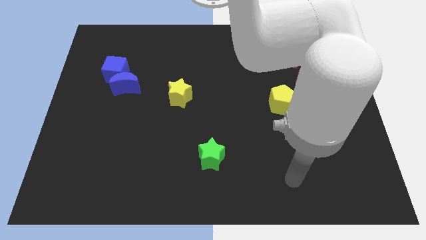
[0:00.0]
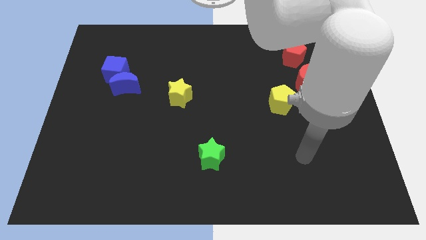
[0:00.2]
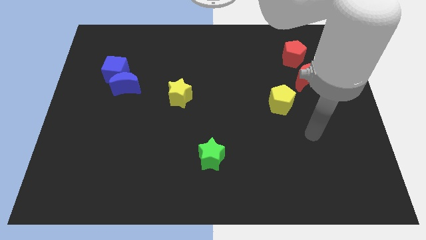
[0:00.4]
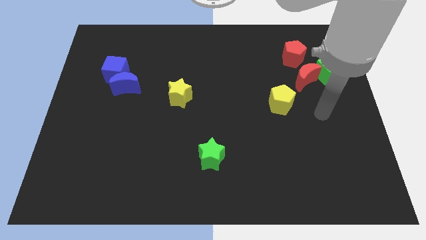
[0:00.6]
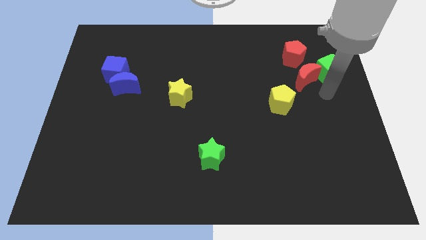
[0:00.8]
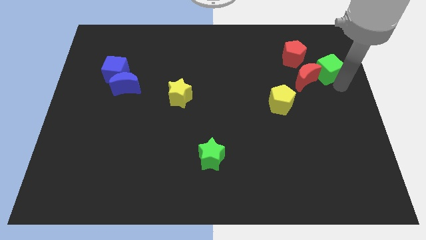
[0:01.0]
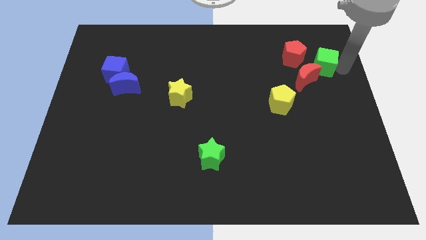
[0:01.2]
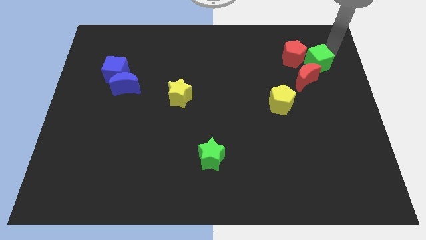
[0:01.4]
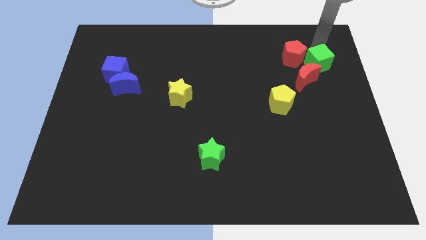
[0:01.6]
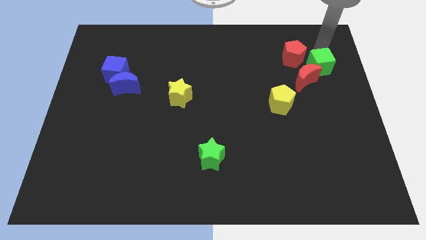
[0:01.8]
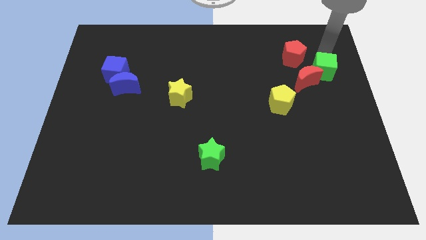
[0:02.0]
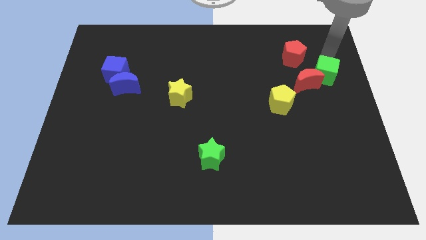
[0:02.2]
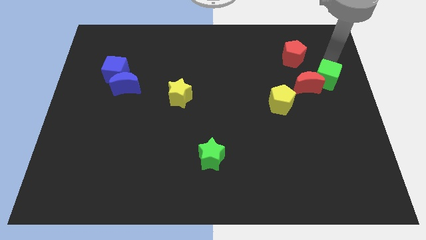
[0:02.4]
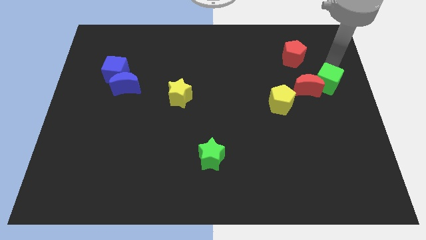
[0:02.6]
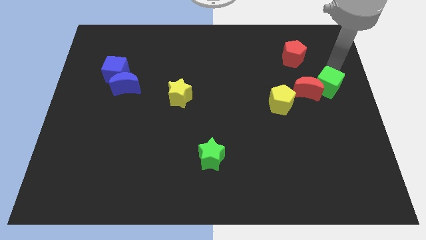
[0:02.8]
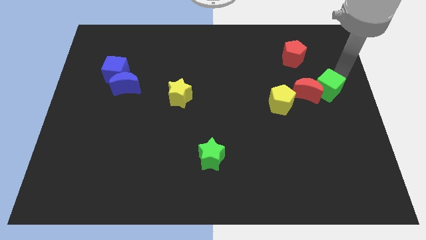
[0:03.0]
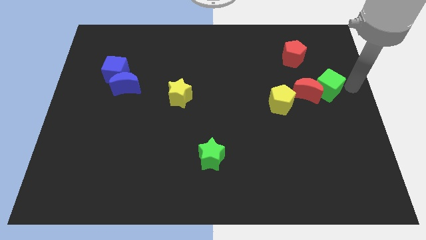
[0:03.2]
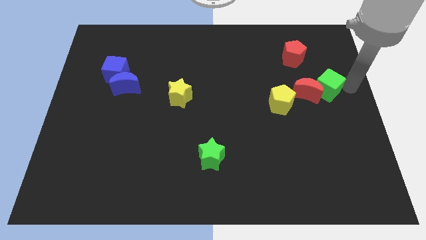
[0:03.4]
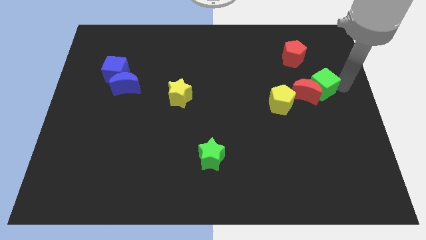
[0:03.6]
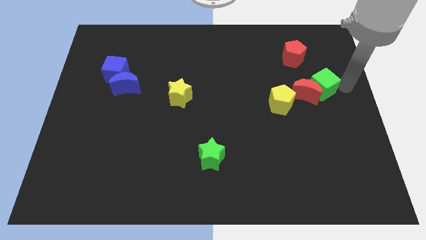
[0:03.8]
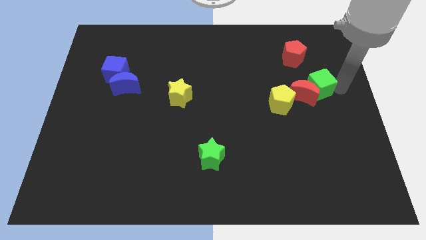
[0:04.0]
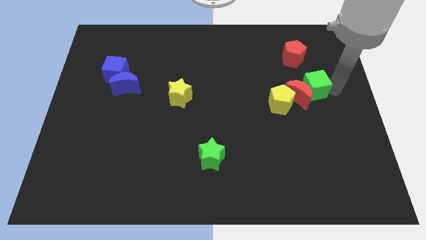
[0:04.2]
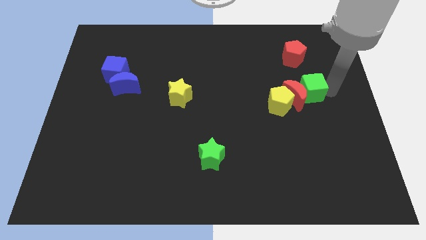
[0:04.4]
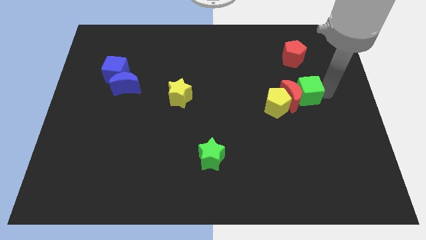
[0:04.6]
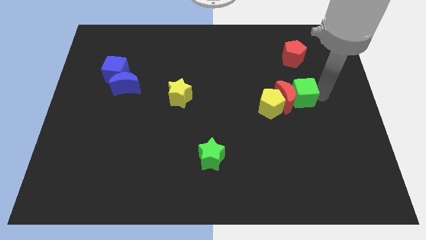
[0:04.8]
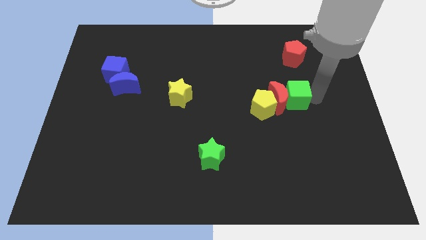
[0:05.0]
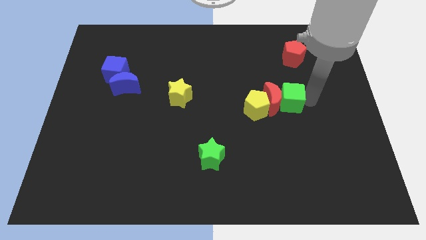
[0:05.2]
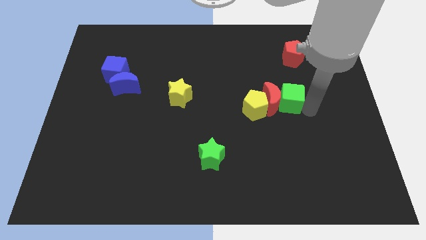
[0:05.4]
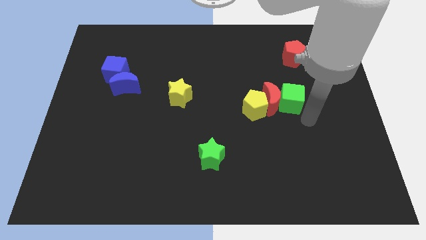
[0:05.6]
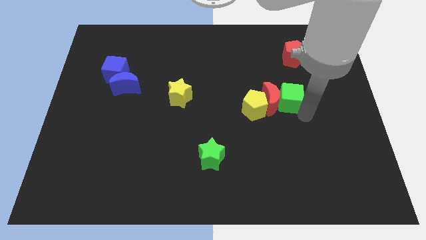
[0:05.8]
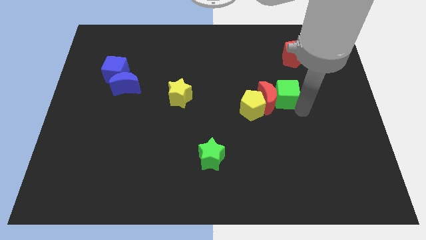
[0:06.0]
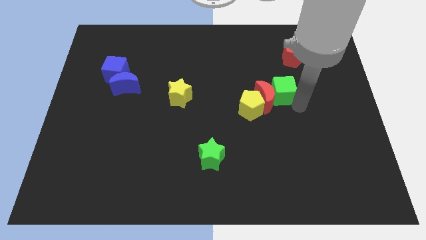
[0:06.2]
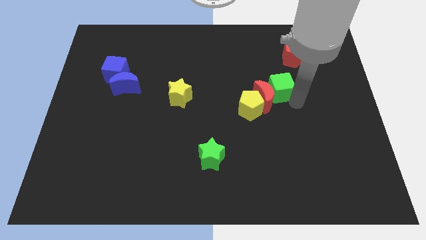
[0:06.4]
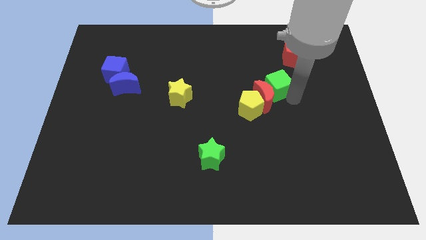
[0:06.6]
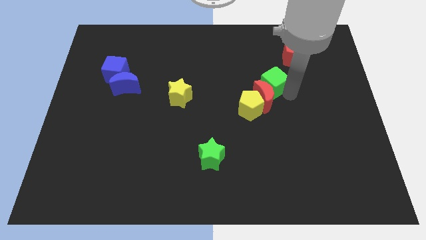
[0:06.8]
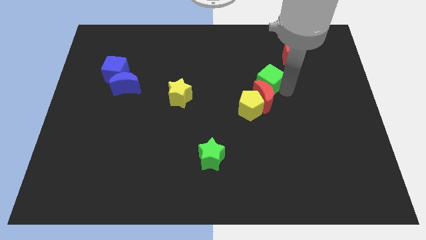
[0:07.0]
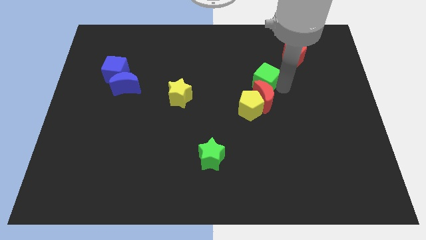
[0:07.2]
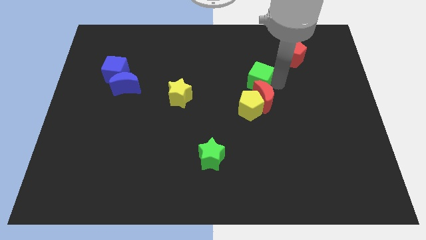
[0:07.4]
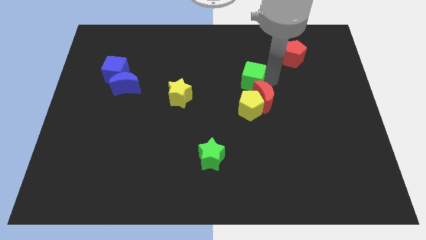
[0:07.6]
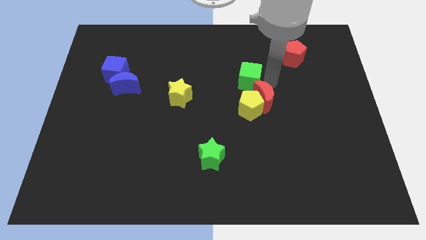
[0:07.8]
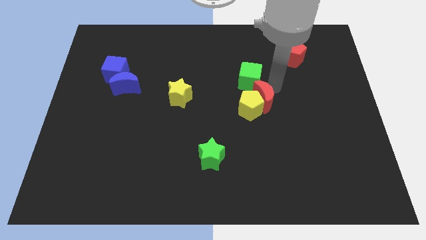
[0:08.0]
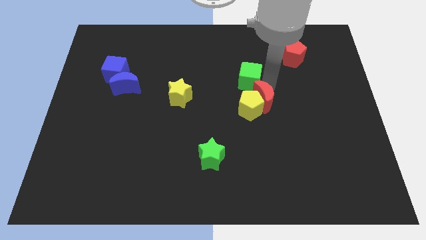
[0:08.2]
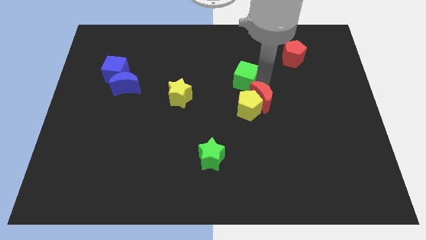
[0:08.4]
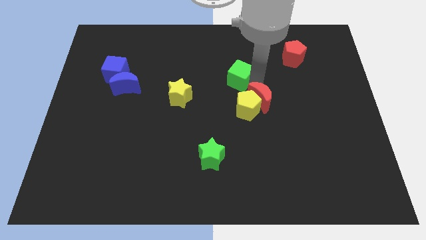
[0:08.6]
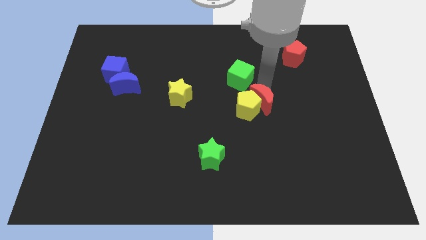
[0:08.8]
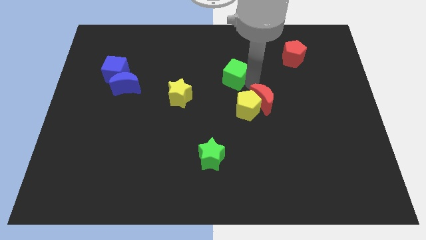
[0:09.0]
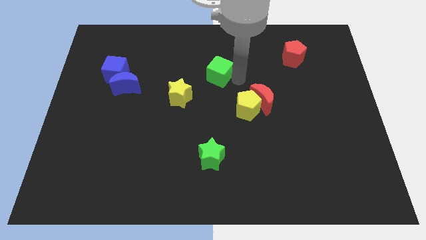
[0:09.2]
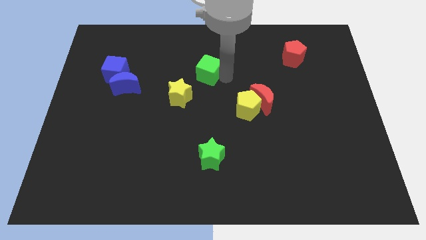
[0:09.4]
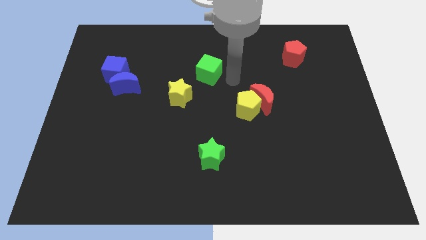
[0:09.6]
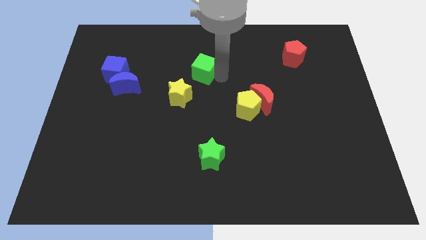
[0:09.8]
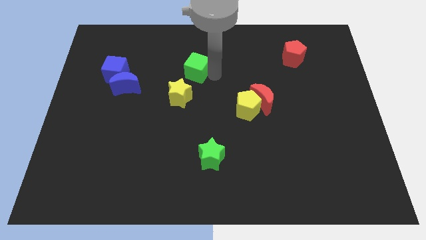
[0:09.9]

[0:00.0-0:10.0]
slide the green cube to the top of the yellow star

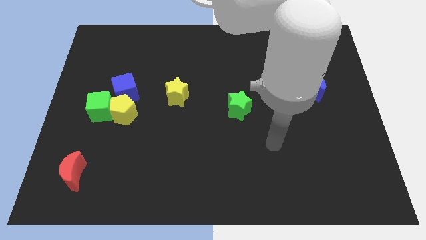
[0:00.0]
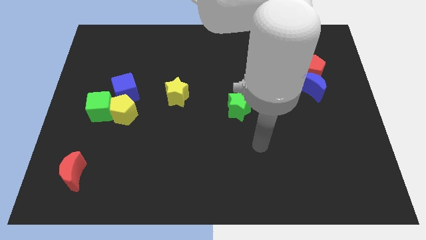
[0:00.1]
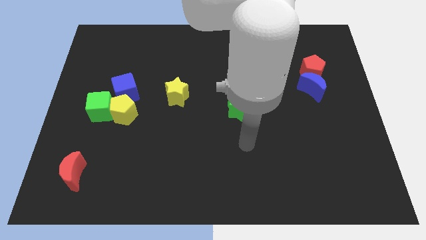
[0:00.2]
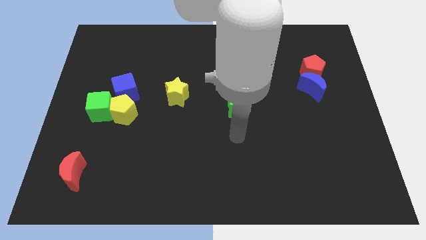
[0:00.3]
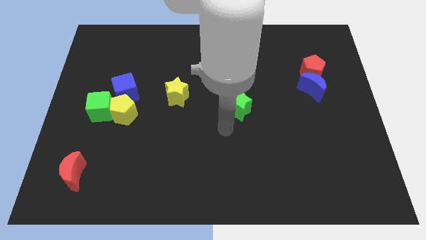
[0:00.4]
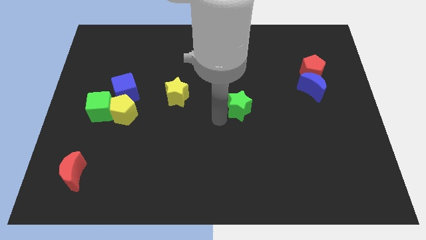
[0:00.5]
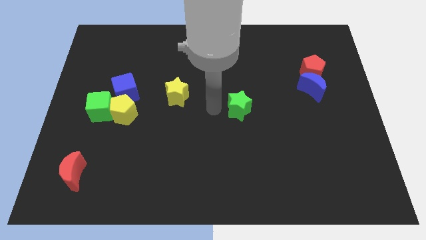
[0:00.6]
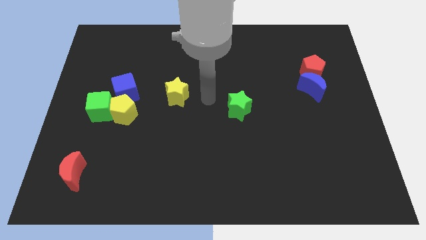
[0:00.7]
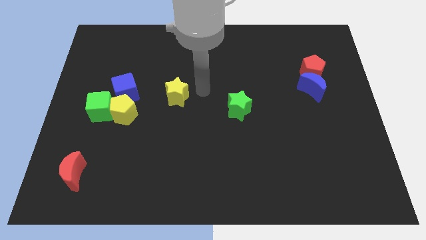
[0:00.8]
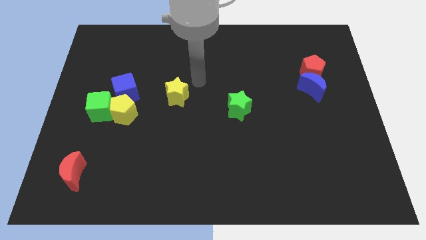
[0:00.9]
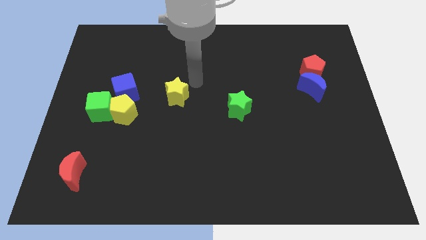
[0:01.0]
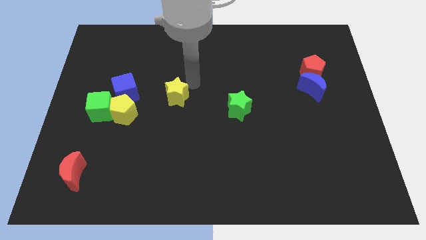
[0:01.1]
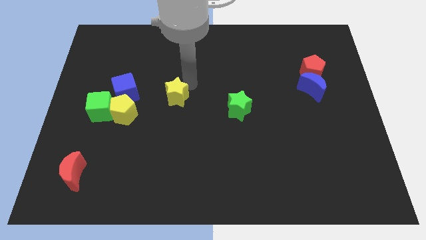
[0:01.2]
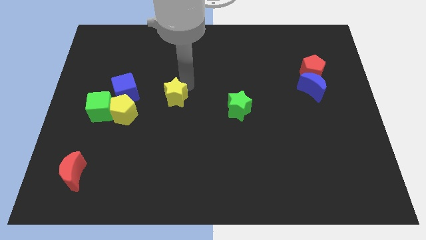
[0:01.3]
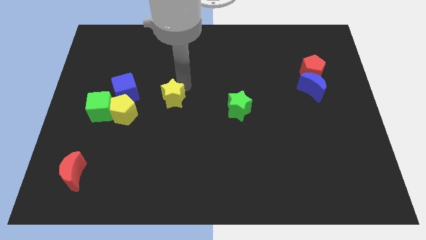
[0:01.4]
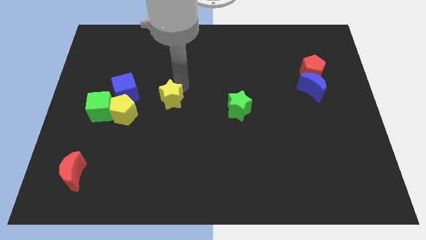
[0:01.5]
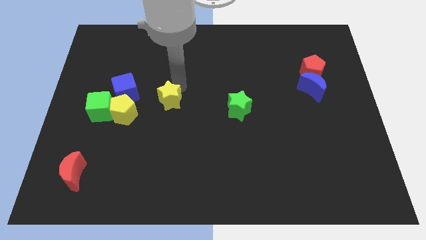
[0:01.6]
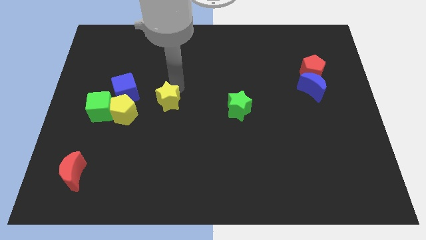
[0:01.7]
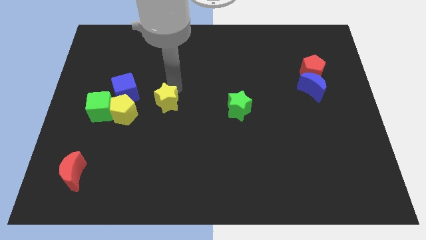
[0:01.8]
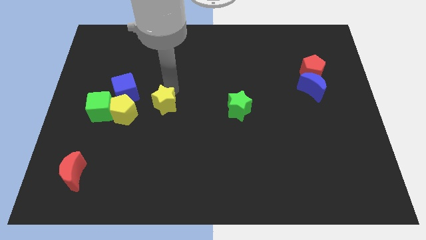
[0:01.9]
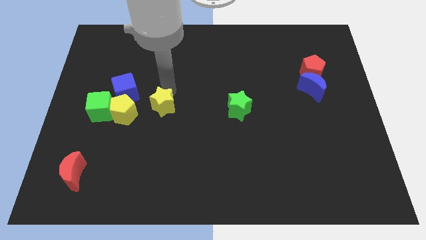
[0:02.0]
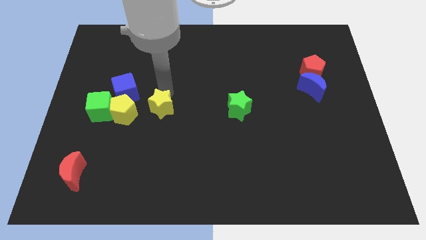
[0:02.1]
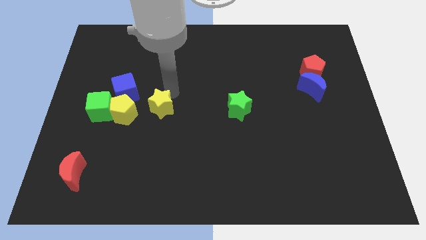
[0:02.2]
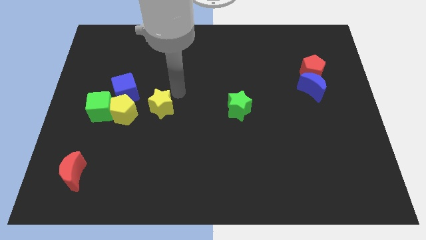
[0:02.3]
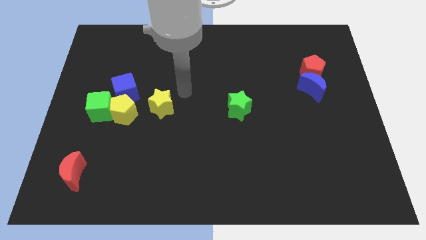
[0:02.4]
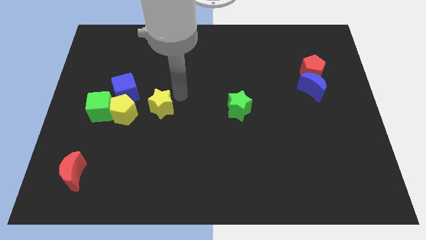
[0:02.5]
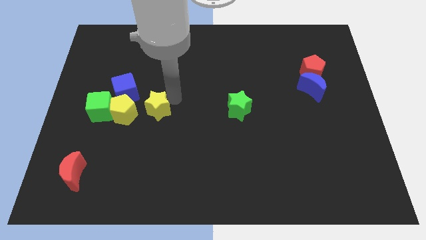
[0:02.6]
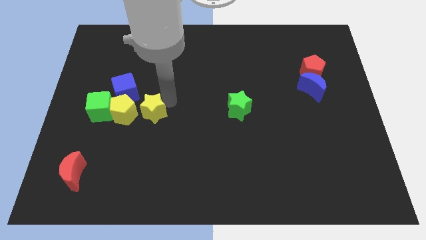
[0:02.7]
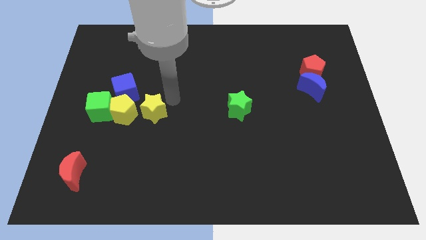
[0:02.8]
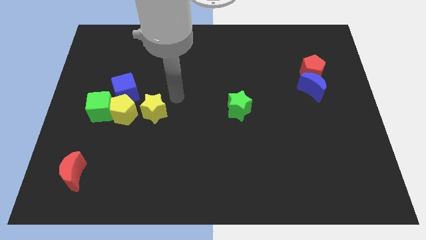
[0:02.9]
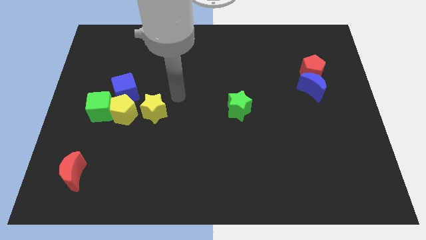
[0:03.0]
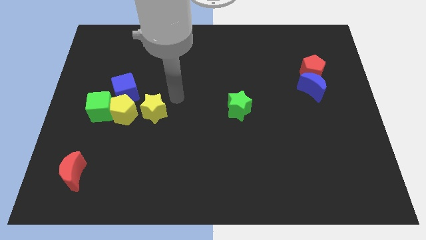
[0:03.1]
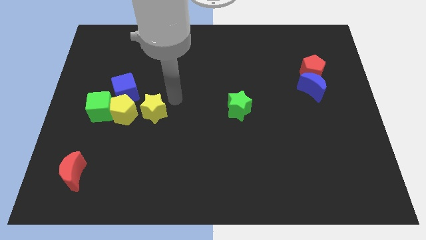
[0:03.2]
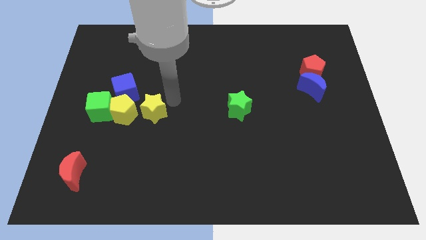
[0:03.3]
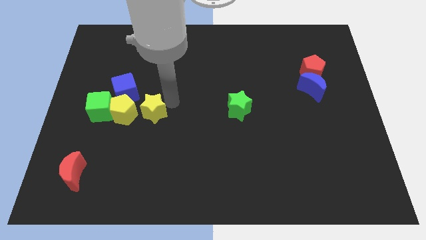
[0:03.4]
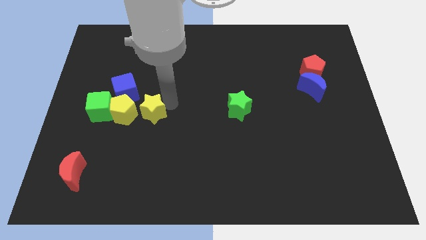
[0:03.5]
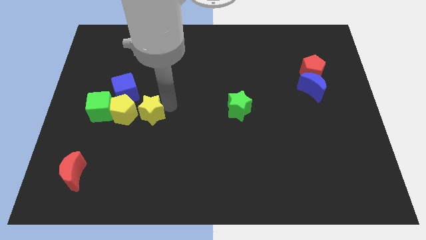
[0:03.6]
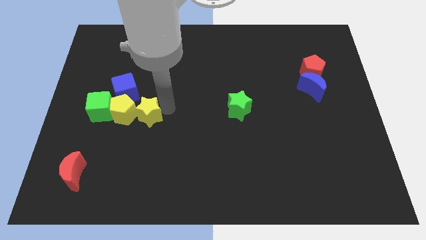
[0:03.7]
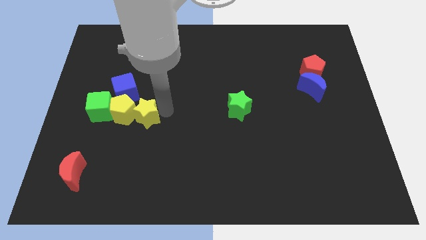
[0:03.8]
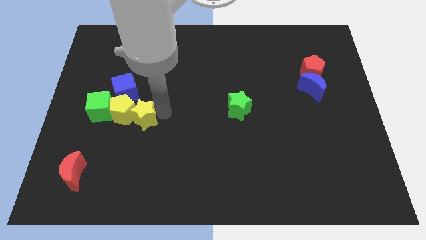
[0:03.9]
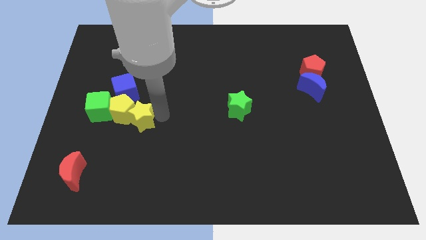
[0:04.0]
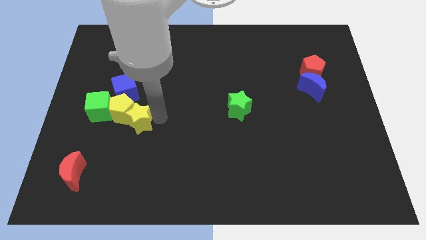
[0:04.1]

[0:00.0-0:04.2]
slide the yellow star below the blue cube
